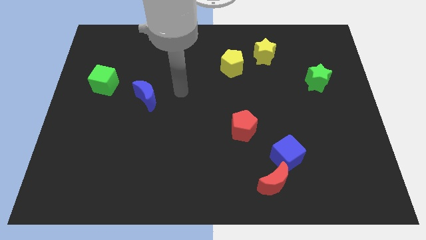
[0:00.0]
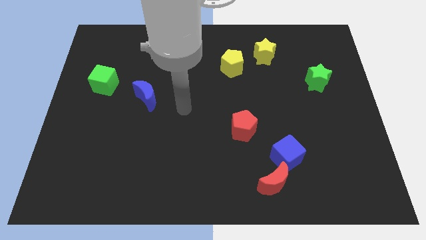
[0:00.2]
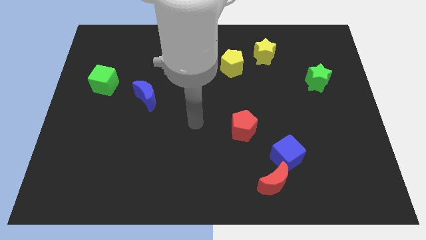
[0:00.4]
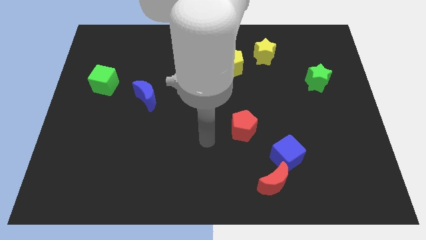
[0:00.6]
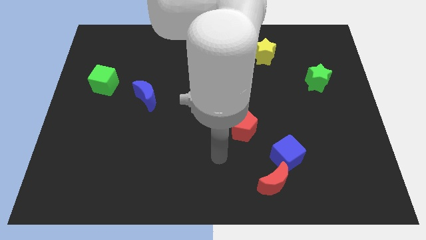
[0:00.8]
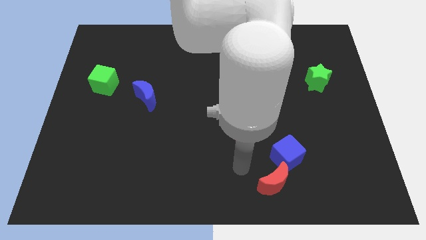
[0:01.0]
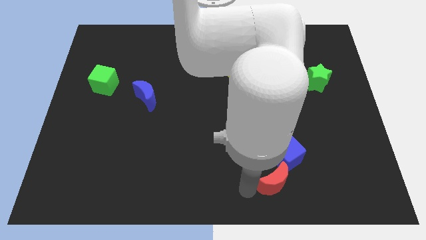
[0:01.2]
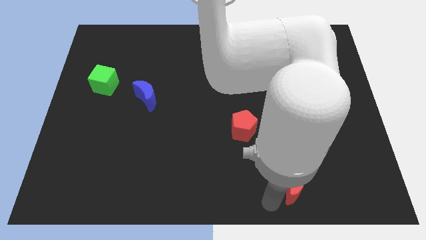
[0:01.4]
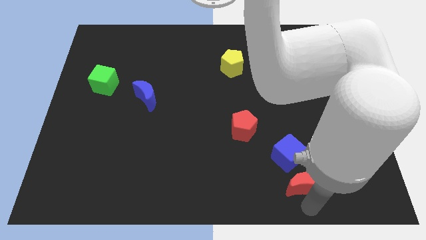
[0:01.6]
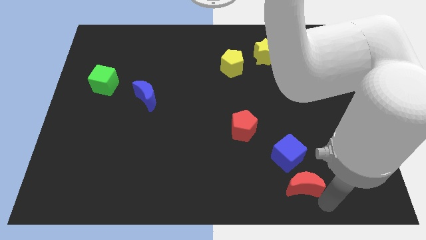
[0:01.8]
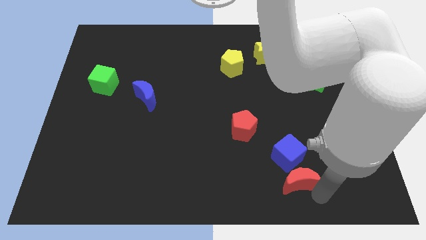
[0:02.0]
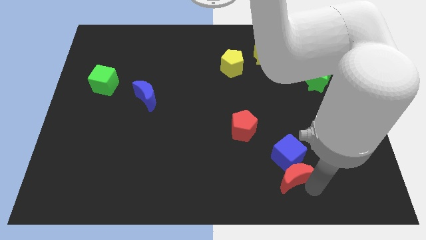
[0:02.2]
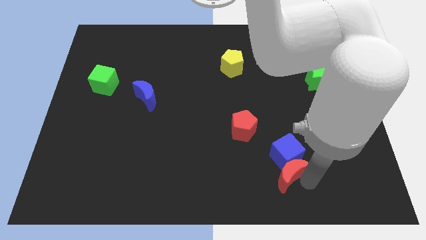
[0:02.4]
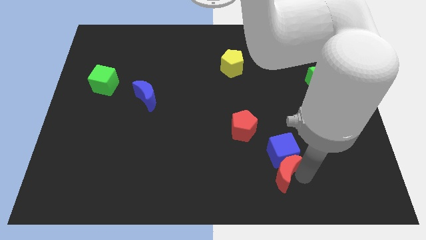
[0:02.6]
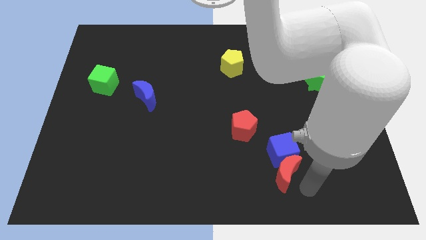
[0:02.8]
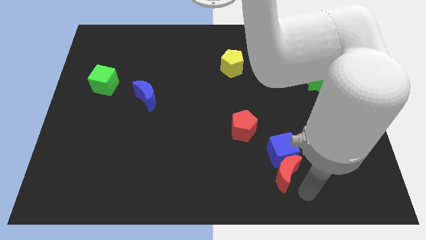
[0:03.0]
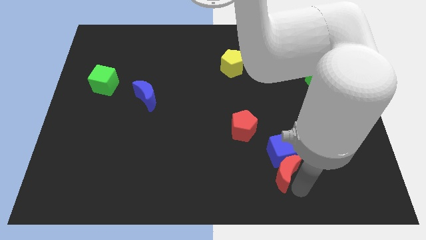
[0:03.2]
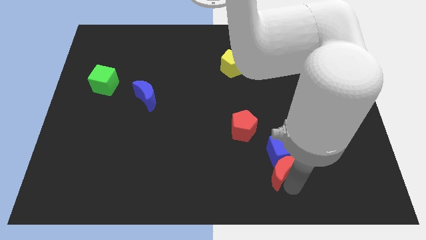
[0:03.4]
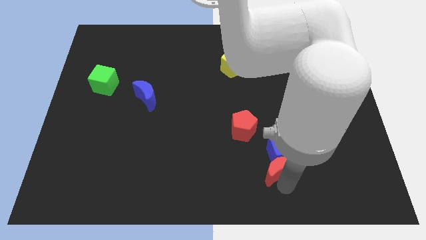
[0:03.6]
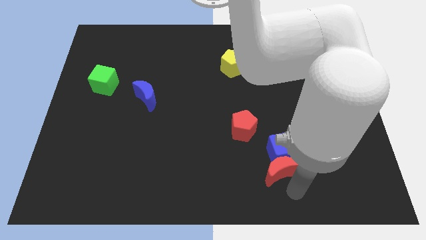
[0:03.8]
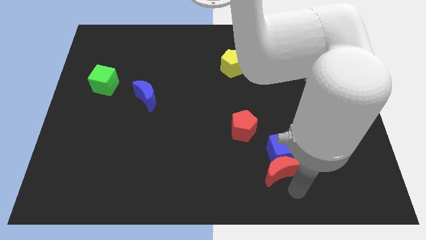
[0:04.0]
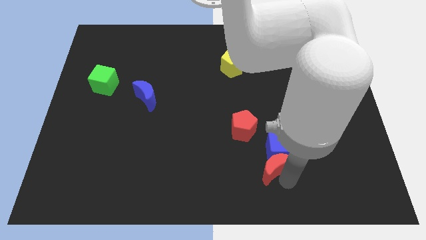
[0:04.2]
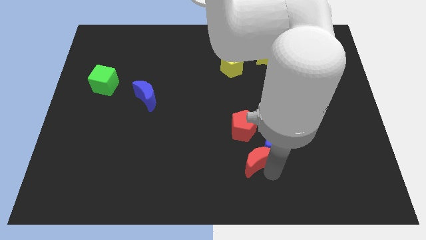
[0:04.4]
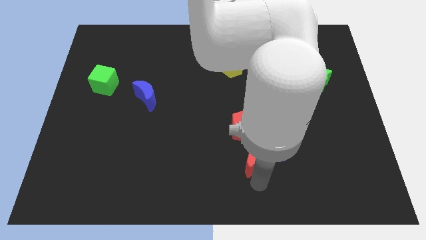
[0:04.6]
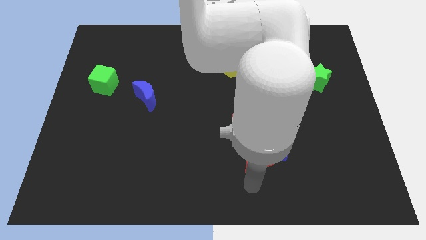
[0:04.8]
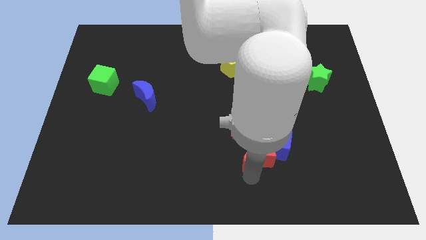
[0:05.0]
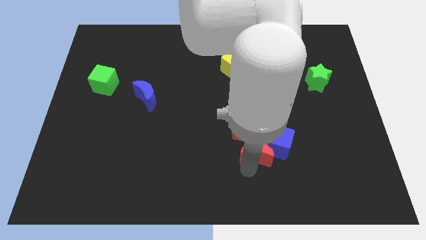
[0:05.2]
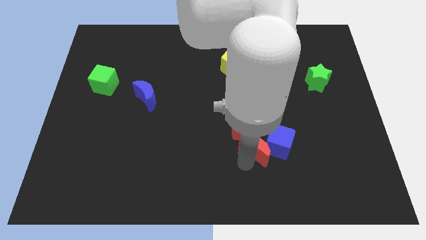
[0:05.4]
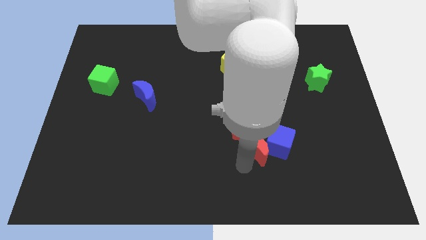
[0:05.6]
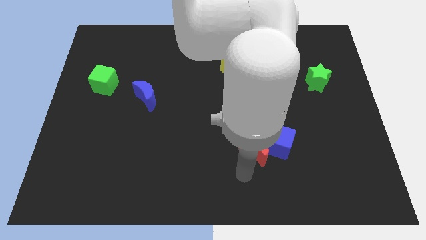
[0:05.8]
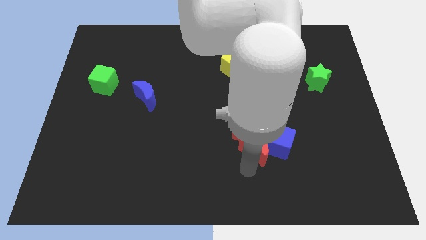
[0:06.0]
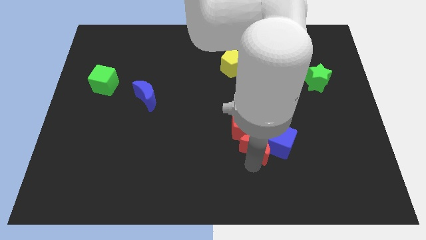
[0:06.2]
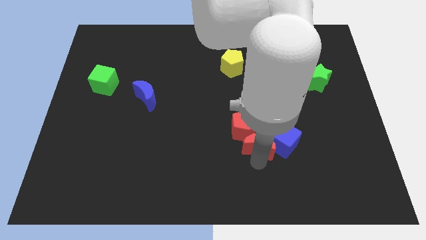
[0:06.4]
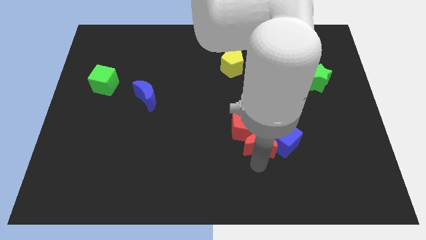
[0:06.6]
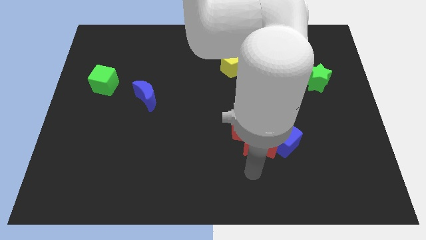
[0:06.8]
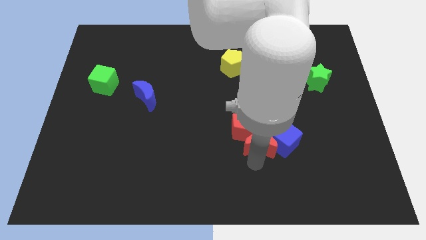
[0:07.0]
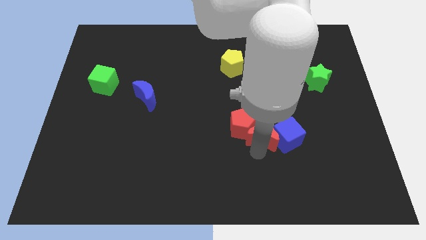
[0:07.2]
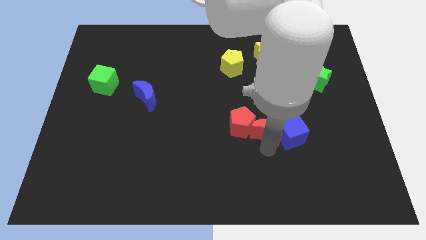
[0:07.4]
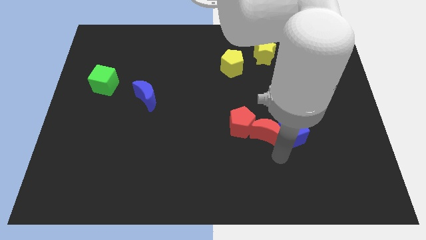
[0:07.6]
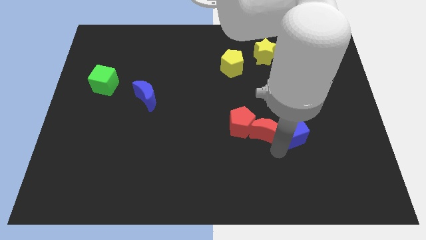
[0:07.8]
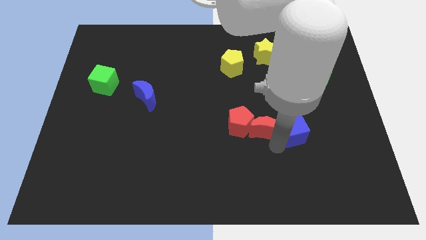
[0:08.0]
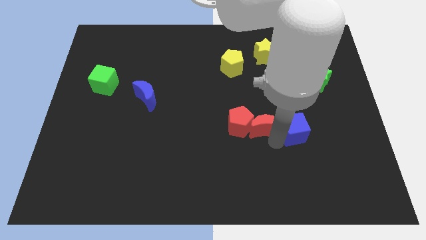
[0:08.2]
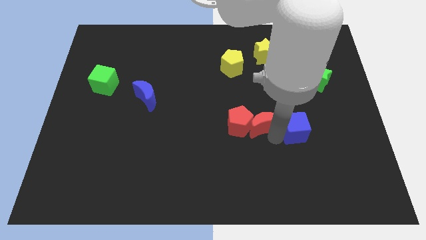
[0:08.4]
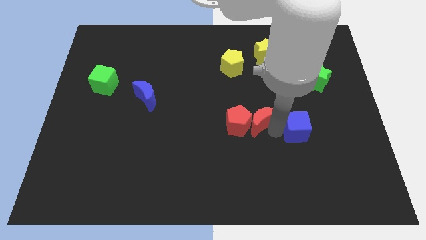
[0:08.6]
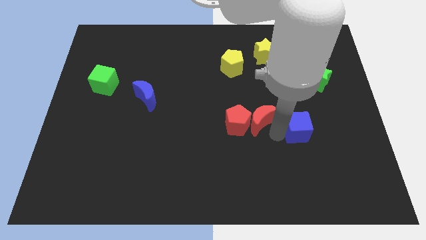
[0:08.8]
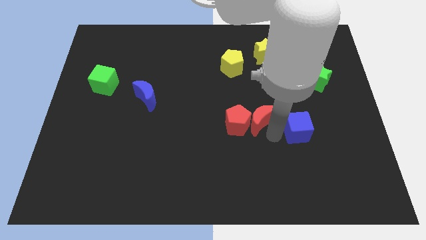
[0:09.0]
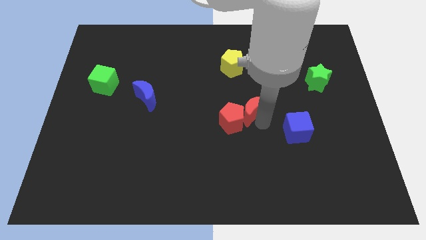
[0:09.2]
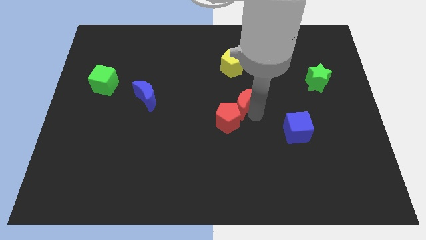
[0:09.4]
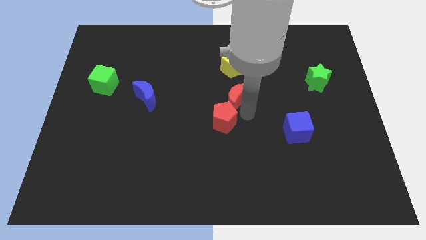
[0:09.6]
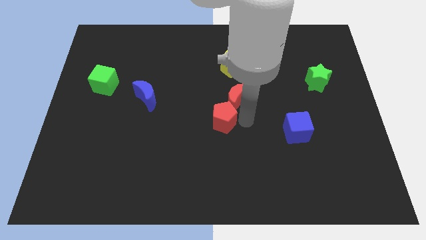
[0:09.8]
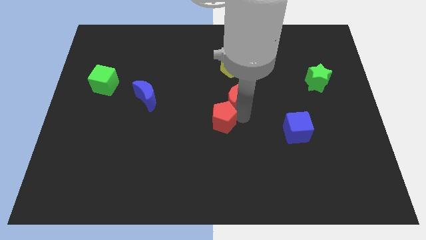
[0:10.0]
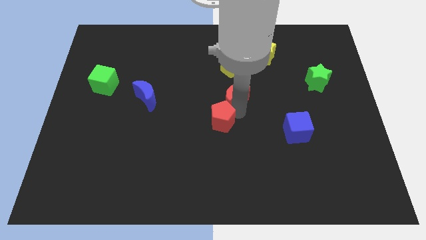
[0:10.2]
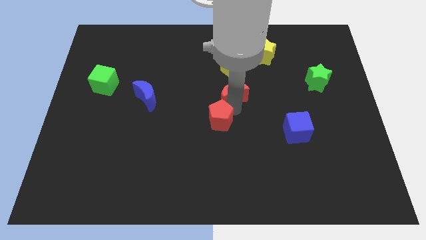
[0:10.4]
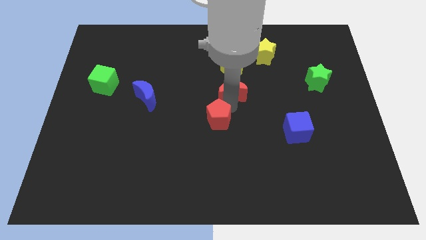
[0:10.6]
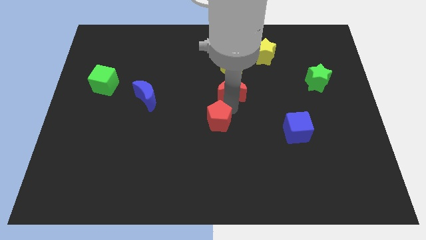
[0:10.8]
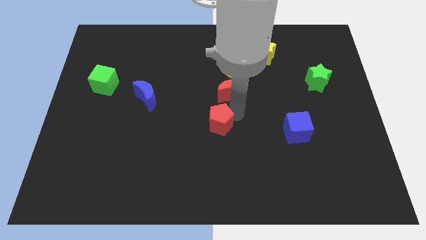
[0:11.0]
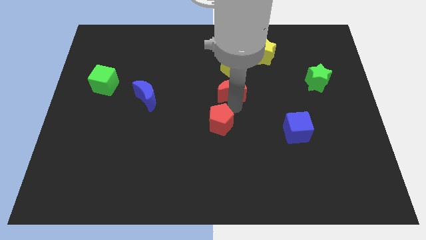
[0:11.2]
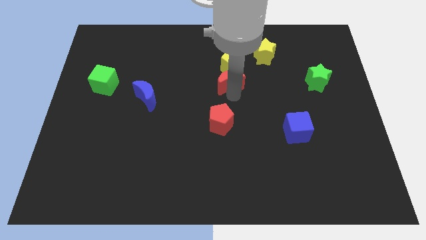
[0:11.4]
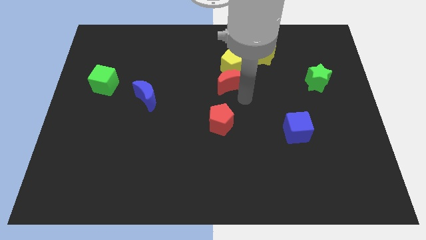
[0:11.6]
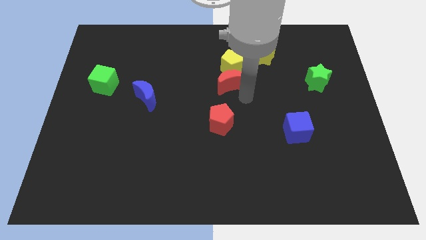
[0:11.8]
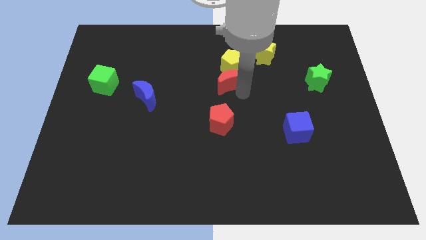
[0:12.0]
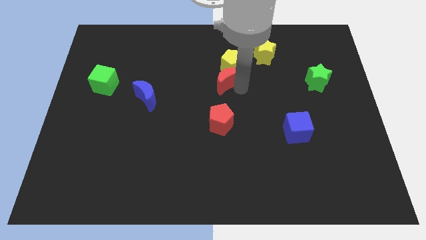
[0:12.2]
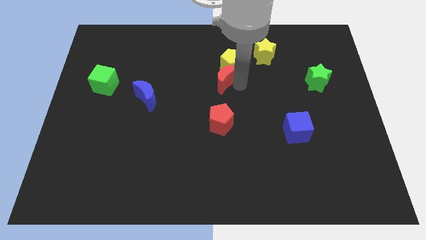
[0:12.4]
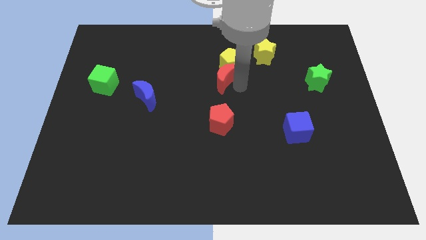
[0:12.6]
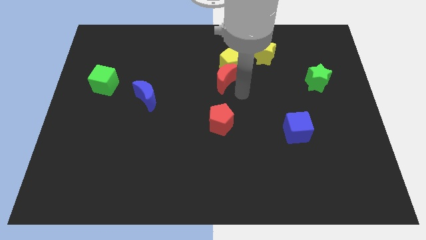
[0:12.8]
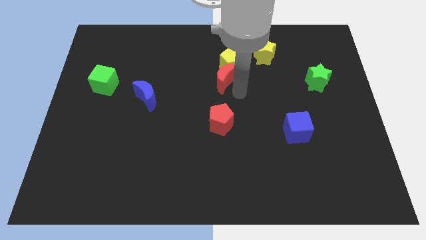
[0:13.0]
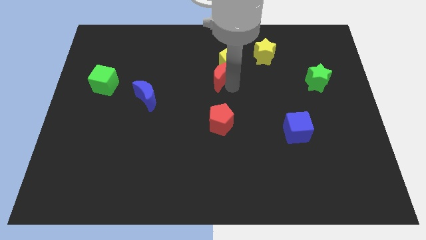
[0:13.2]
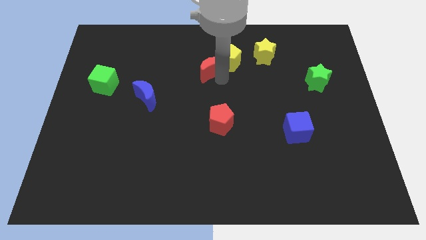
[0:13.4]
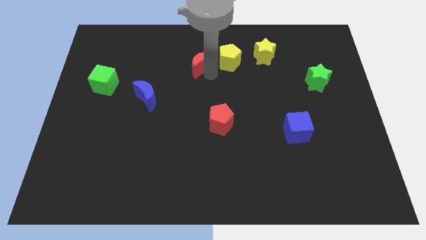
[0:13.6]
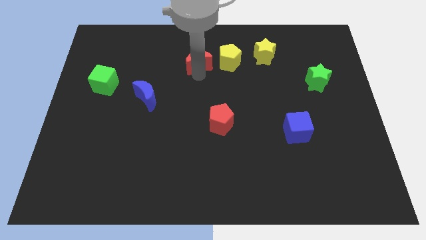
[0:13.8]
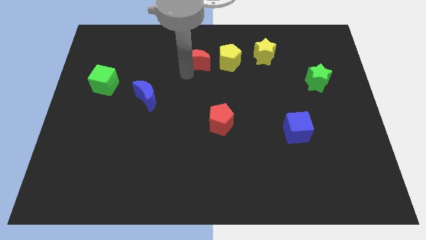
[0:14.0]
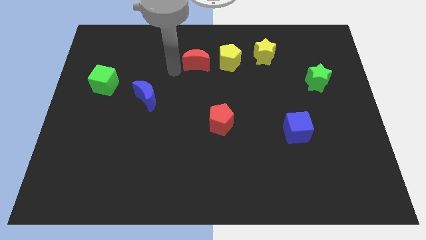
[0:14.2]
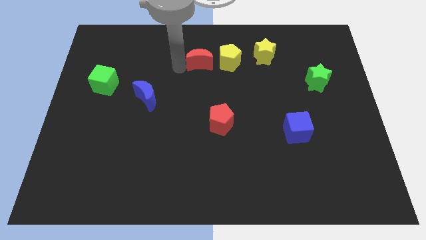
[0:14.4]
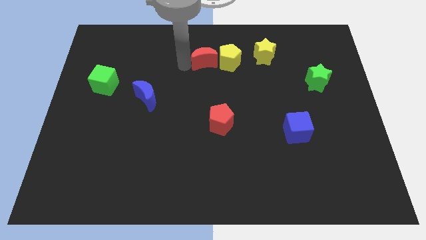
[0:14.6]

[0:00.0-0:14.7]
slide the red moon left of the yellow star

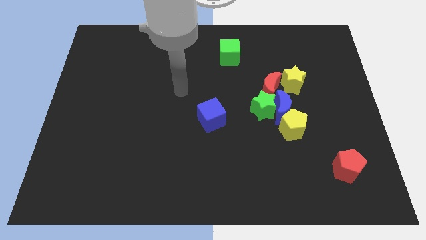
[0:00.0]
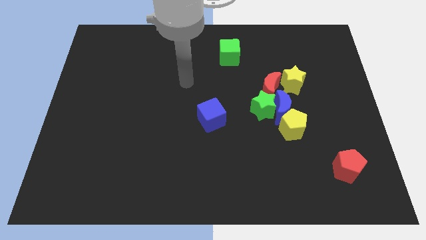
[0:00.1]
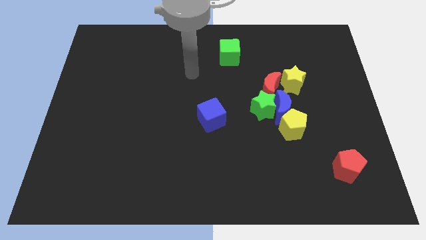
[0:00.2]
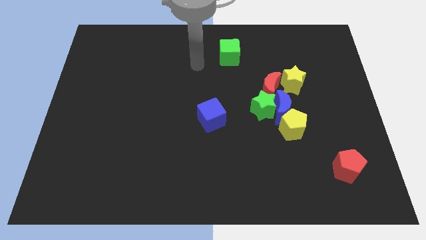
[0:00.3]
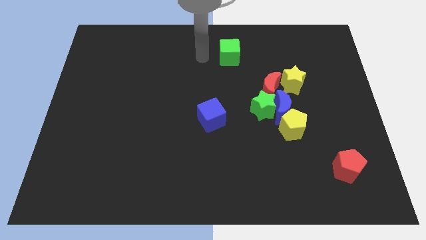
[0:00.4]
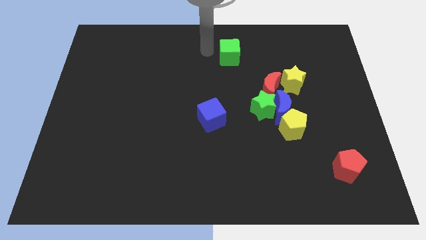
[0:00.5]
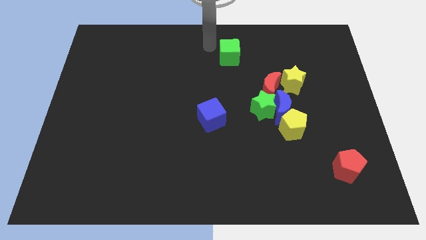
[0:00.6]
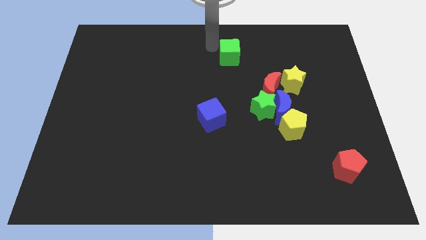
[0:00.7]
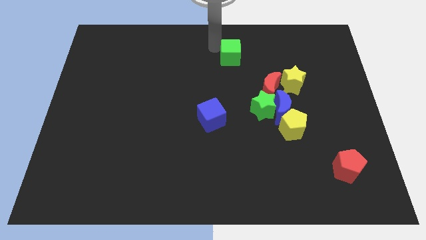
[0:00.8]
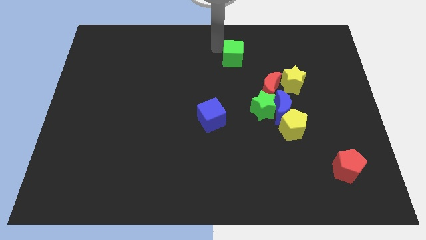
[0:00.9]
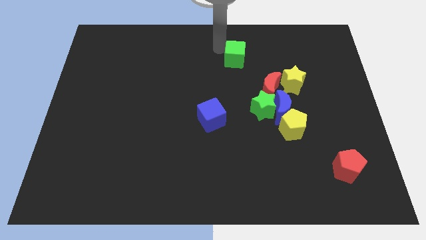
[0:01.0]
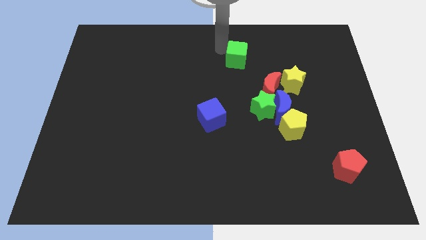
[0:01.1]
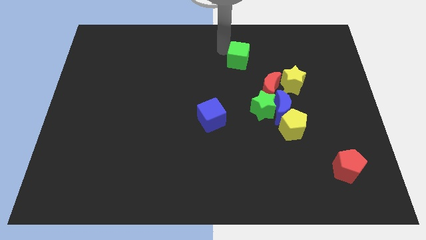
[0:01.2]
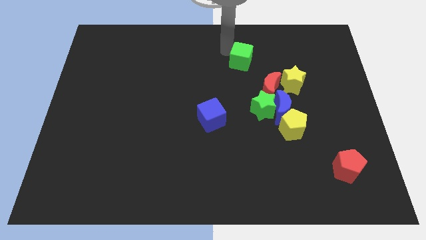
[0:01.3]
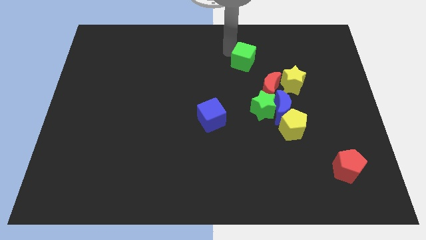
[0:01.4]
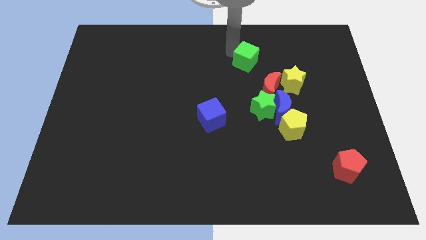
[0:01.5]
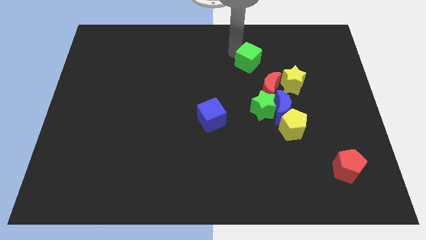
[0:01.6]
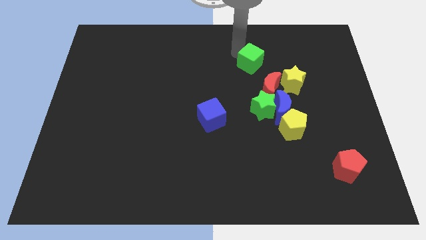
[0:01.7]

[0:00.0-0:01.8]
put the green cube to the top side of the green star
